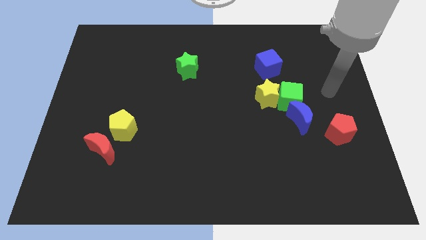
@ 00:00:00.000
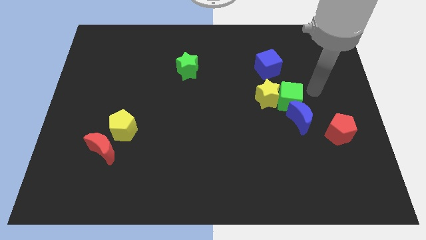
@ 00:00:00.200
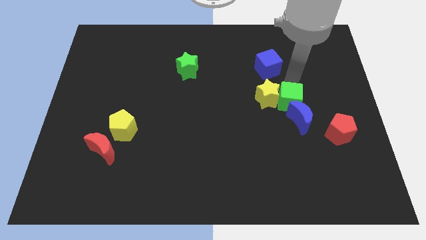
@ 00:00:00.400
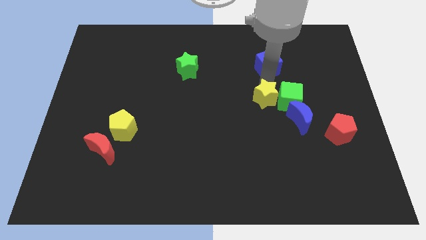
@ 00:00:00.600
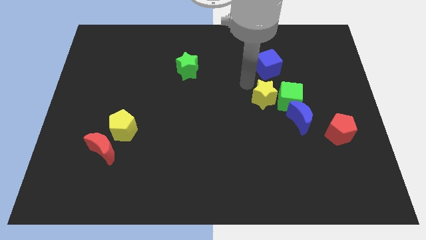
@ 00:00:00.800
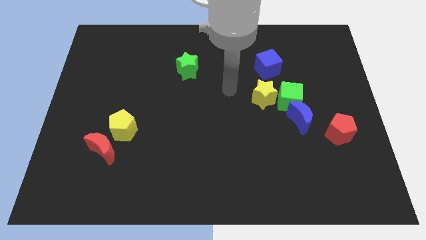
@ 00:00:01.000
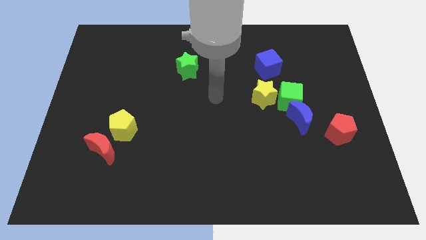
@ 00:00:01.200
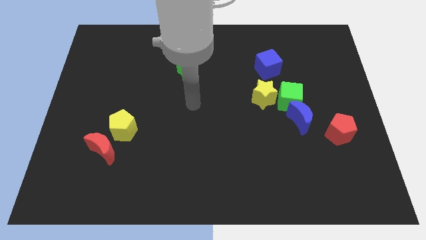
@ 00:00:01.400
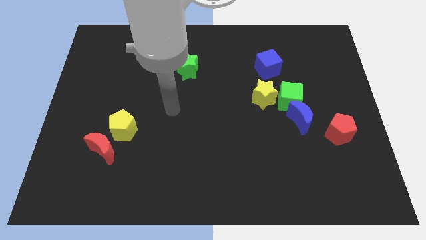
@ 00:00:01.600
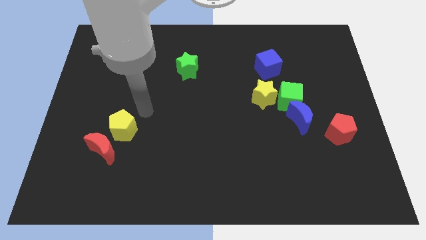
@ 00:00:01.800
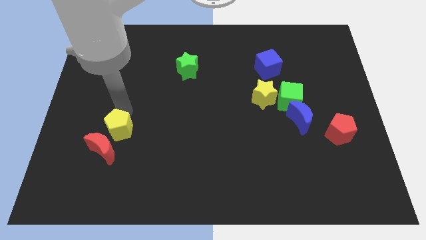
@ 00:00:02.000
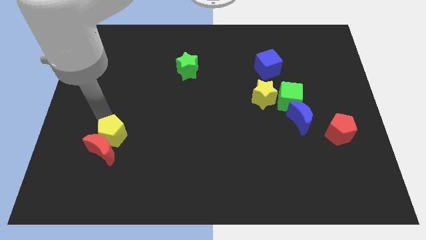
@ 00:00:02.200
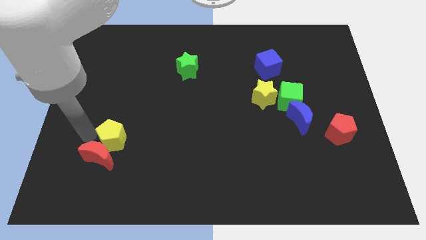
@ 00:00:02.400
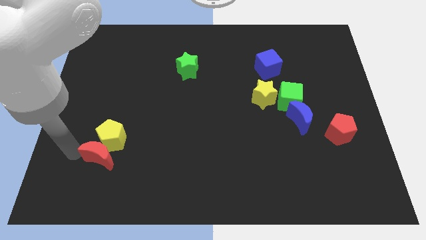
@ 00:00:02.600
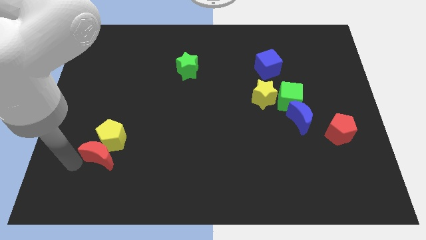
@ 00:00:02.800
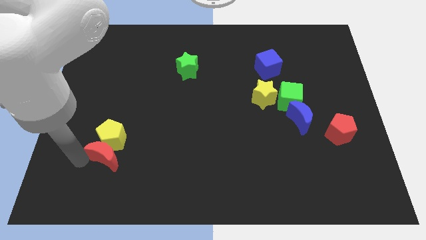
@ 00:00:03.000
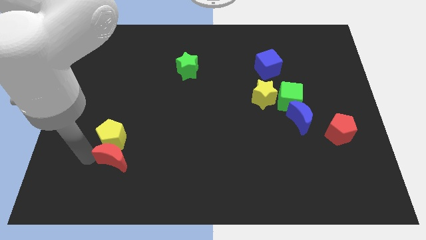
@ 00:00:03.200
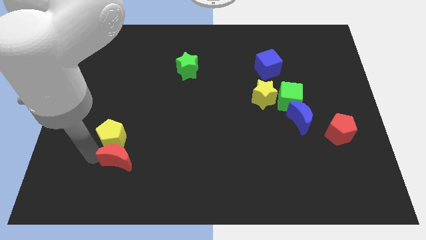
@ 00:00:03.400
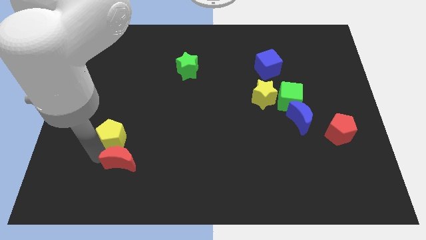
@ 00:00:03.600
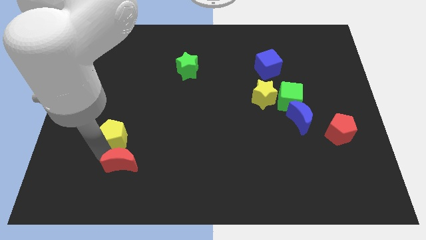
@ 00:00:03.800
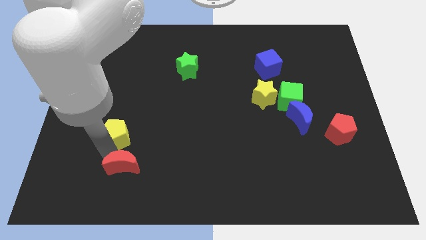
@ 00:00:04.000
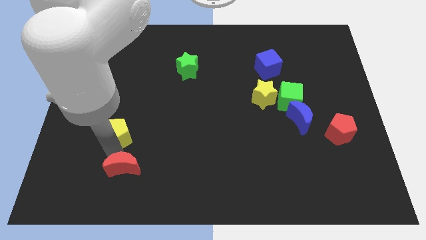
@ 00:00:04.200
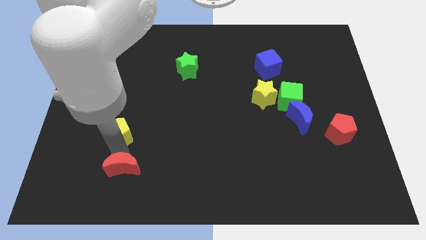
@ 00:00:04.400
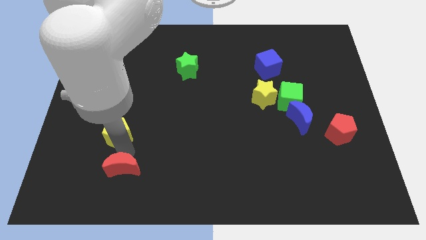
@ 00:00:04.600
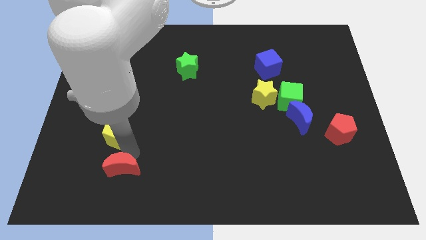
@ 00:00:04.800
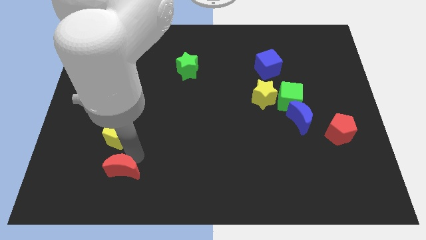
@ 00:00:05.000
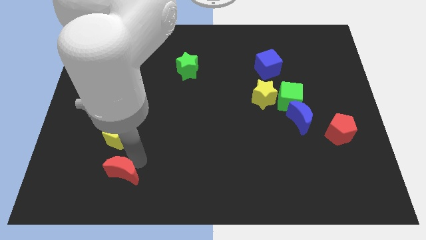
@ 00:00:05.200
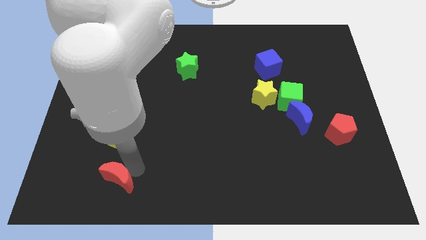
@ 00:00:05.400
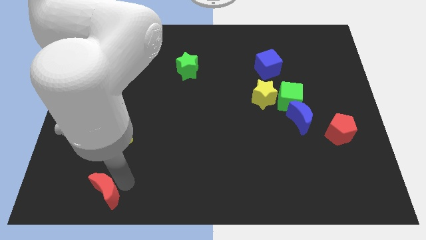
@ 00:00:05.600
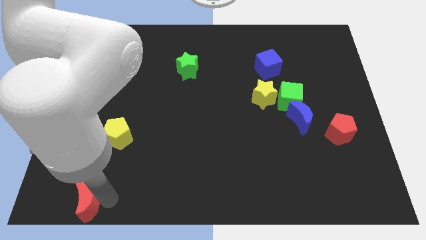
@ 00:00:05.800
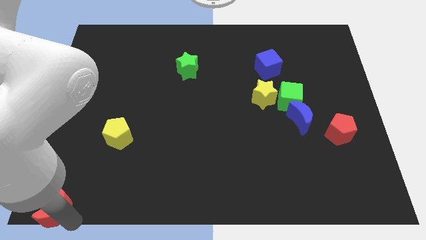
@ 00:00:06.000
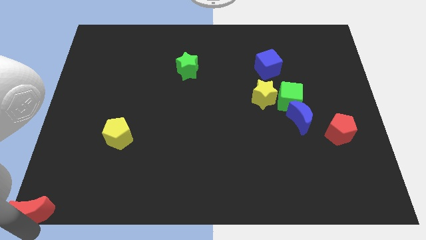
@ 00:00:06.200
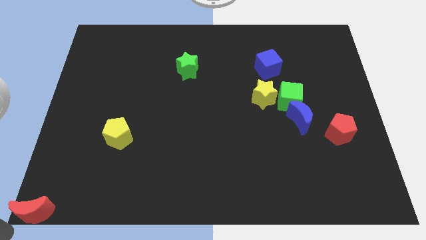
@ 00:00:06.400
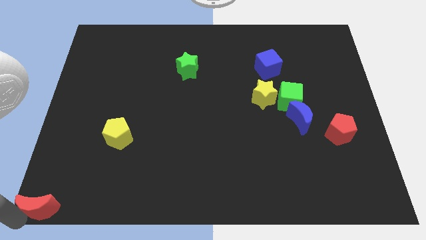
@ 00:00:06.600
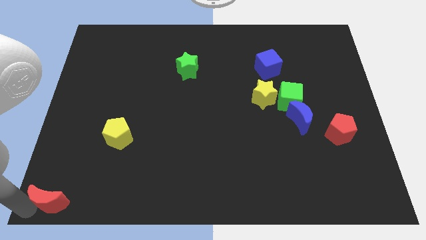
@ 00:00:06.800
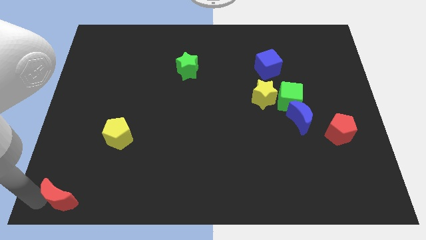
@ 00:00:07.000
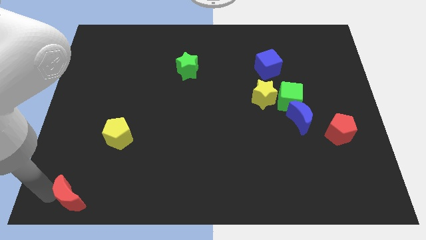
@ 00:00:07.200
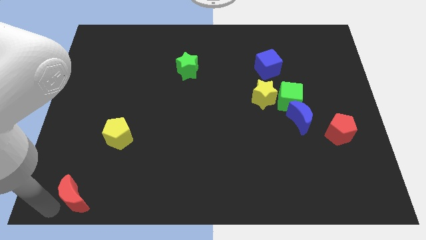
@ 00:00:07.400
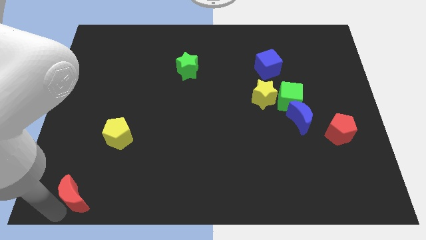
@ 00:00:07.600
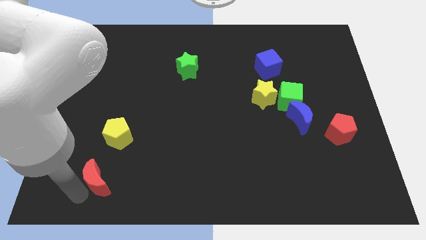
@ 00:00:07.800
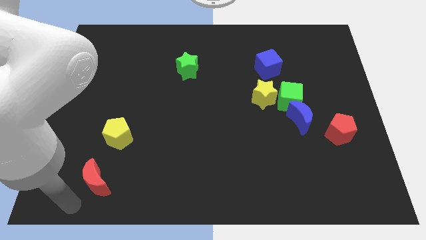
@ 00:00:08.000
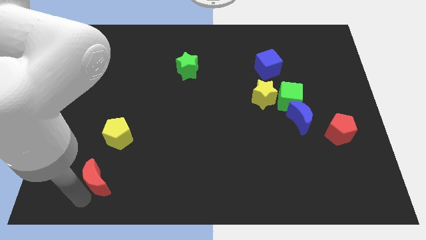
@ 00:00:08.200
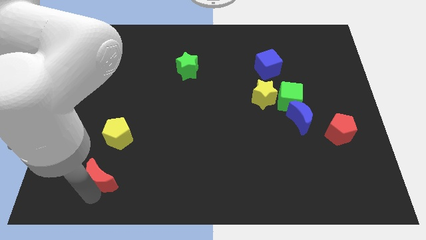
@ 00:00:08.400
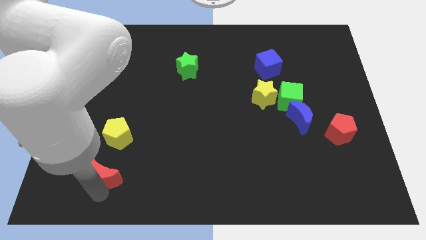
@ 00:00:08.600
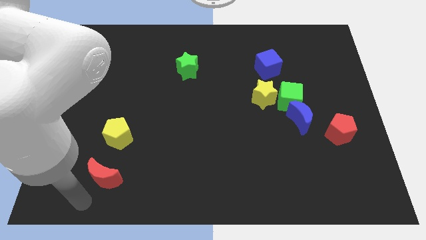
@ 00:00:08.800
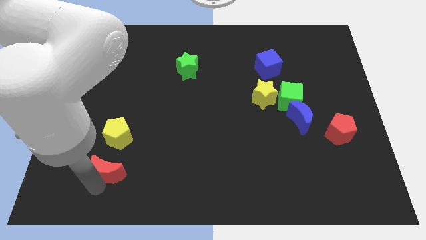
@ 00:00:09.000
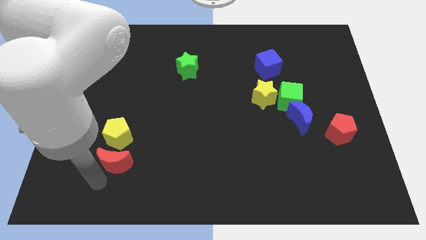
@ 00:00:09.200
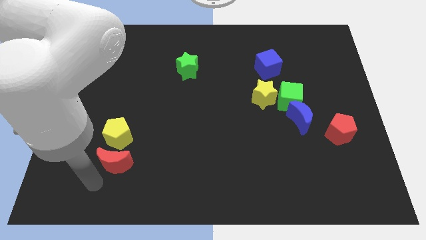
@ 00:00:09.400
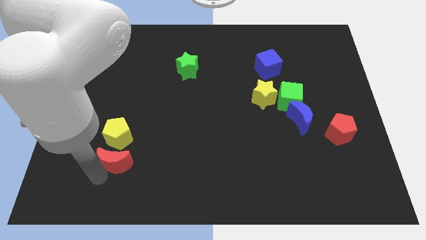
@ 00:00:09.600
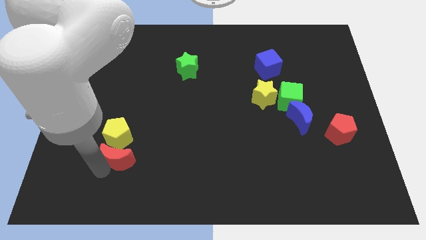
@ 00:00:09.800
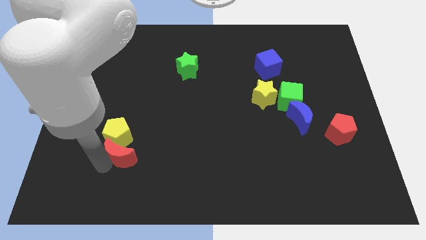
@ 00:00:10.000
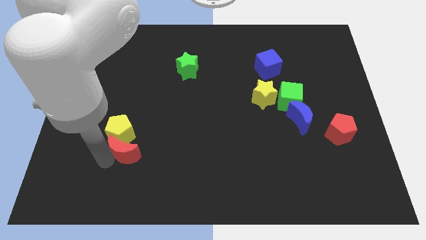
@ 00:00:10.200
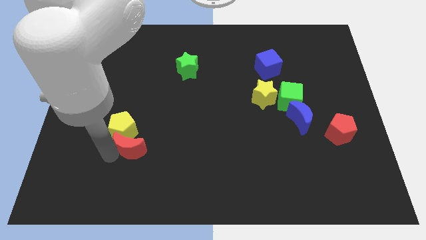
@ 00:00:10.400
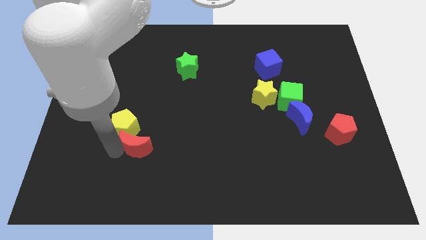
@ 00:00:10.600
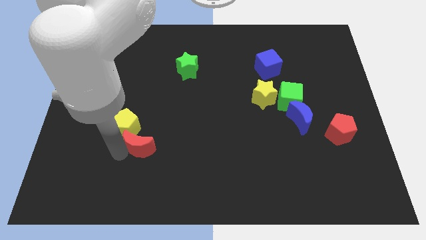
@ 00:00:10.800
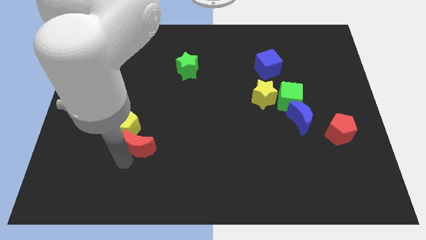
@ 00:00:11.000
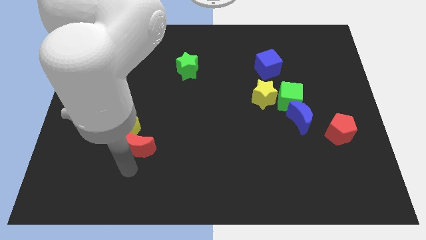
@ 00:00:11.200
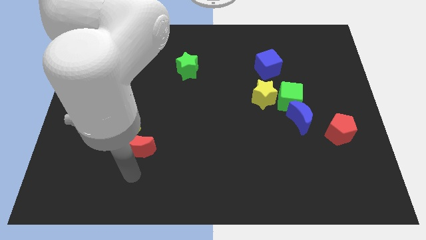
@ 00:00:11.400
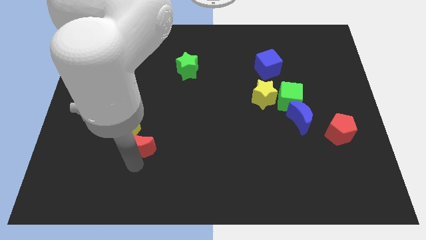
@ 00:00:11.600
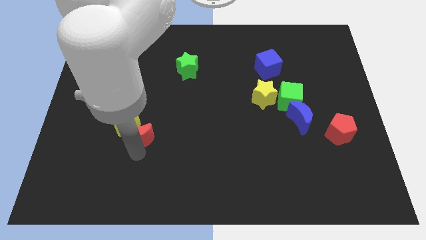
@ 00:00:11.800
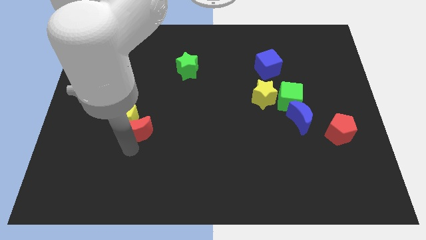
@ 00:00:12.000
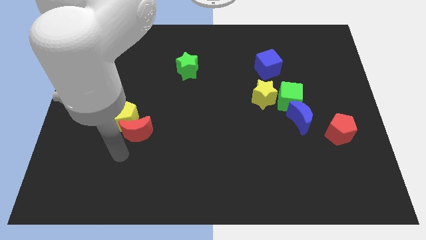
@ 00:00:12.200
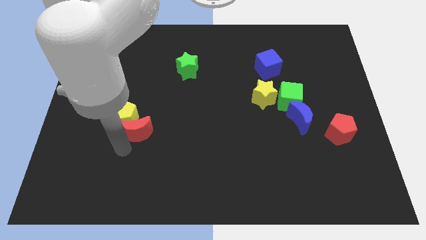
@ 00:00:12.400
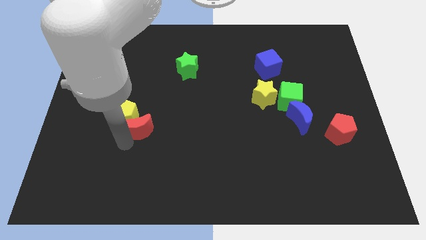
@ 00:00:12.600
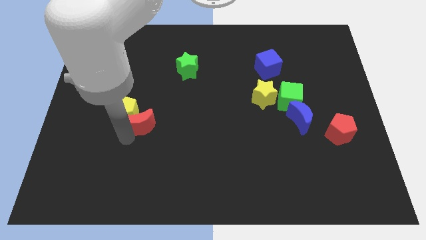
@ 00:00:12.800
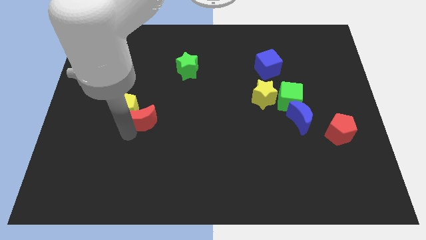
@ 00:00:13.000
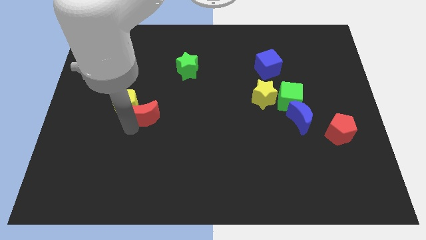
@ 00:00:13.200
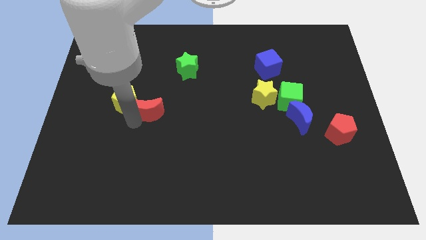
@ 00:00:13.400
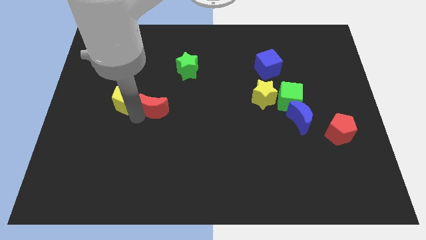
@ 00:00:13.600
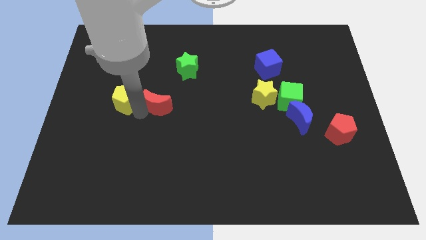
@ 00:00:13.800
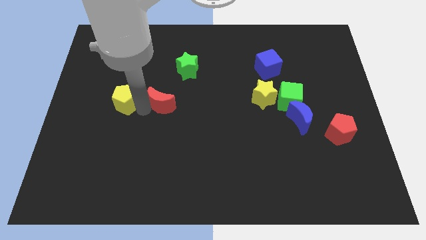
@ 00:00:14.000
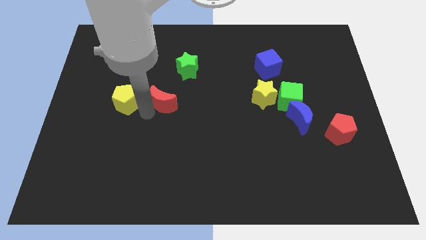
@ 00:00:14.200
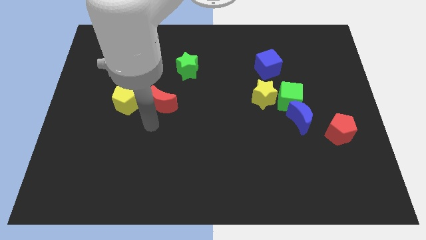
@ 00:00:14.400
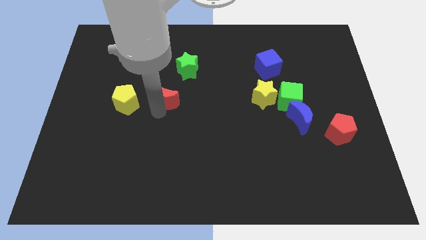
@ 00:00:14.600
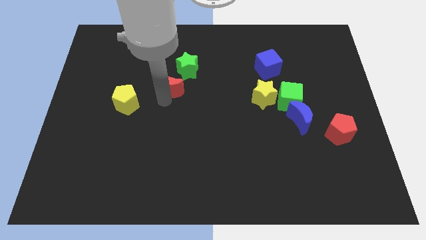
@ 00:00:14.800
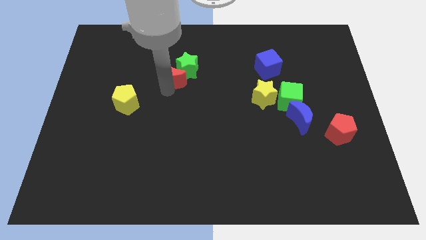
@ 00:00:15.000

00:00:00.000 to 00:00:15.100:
push the red moon towards the green star

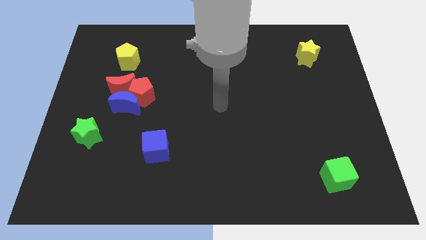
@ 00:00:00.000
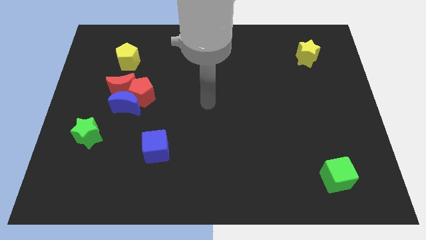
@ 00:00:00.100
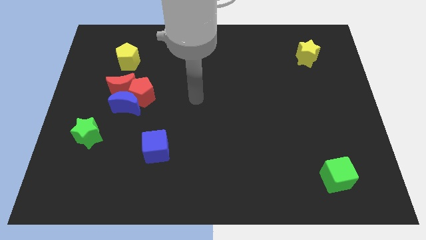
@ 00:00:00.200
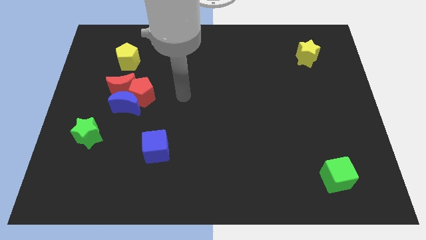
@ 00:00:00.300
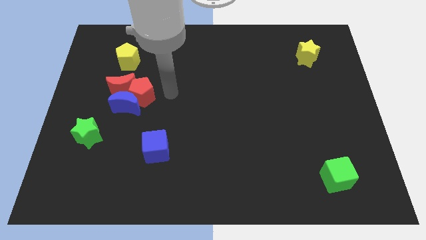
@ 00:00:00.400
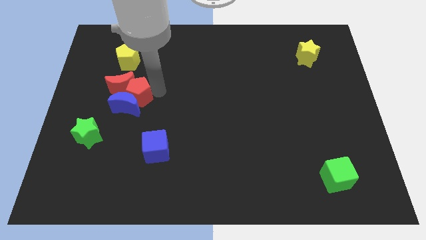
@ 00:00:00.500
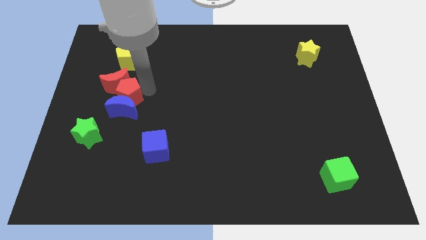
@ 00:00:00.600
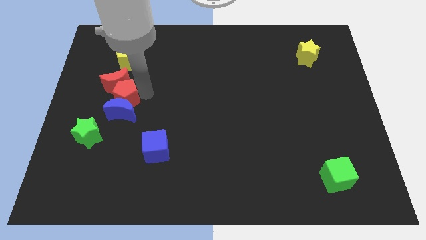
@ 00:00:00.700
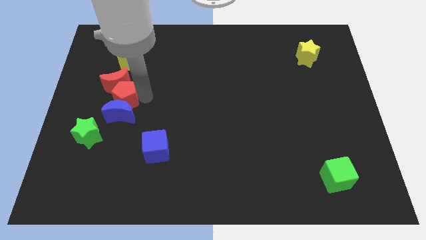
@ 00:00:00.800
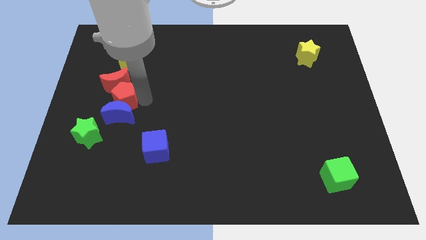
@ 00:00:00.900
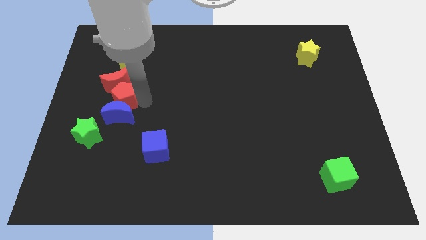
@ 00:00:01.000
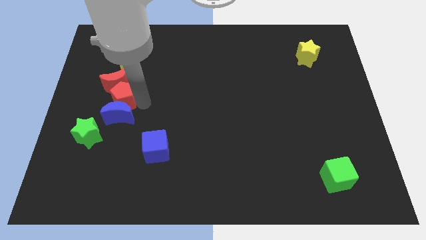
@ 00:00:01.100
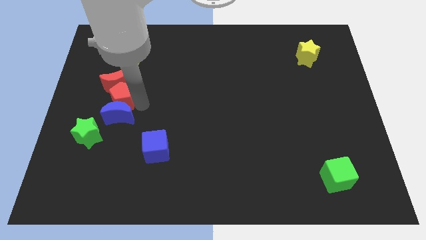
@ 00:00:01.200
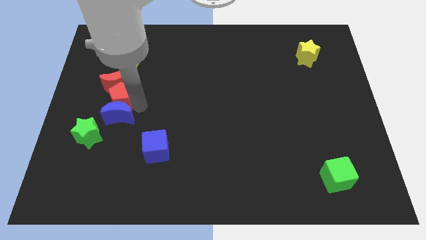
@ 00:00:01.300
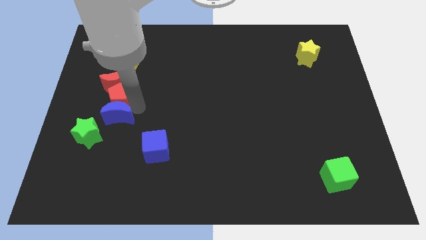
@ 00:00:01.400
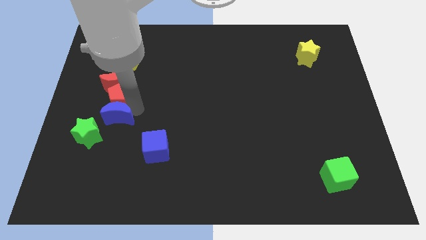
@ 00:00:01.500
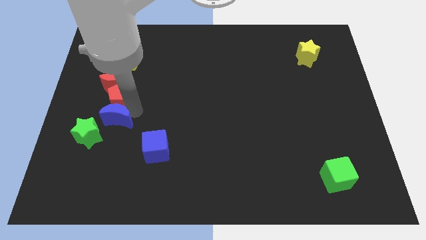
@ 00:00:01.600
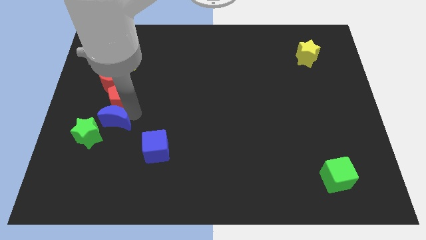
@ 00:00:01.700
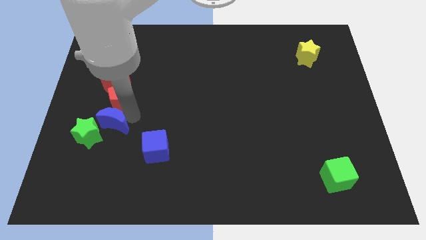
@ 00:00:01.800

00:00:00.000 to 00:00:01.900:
slide the blue moon to the green star
